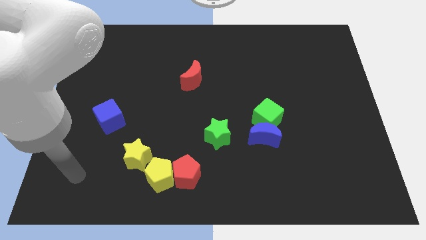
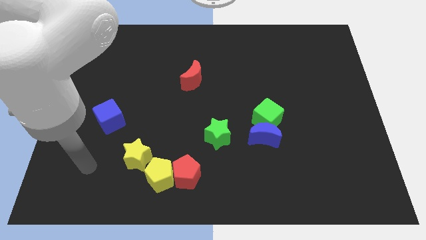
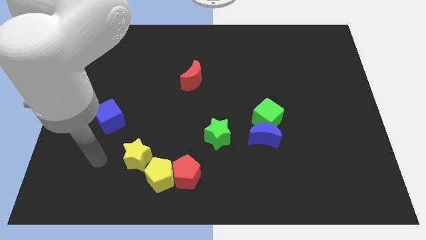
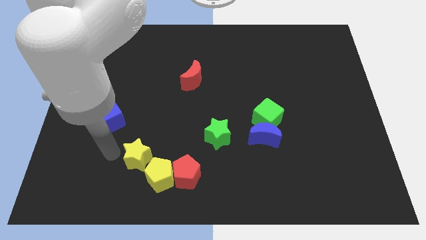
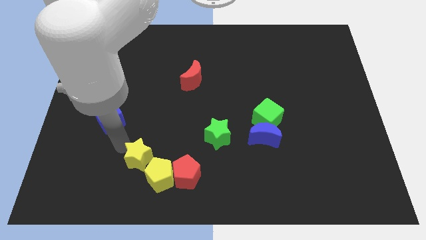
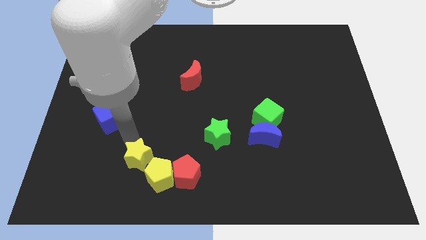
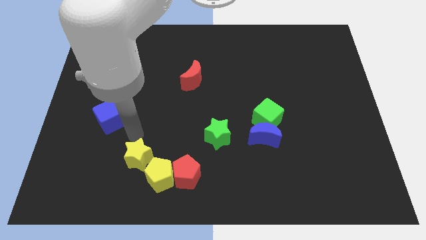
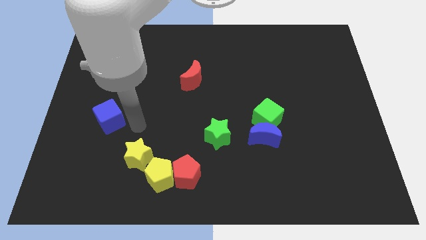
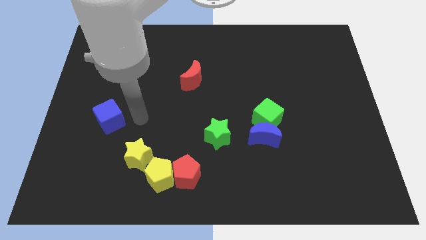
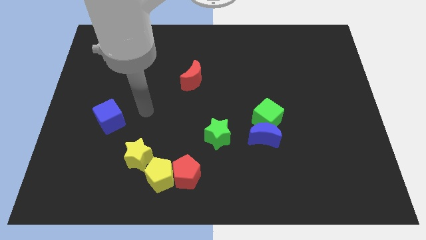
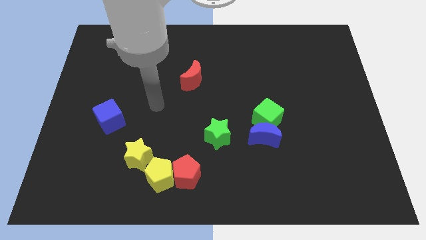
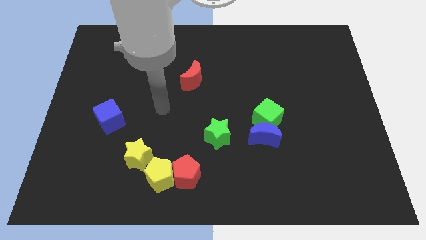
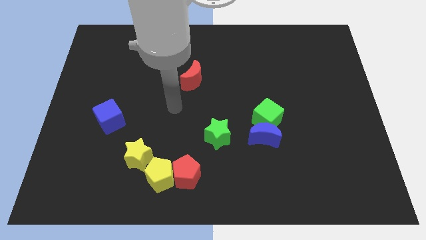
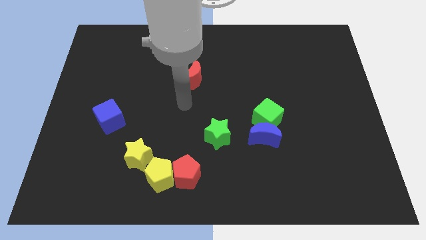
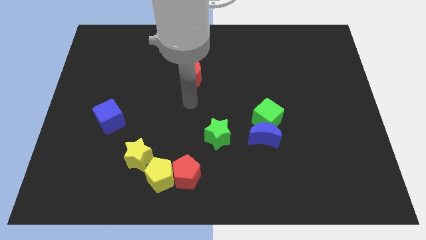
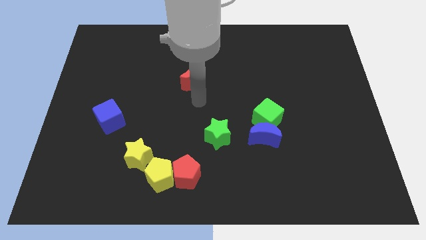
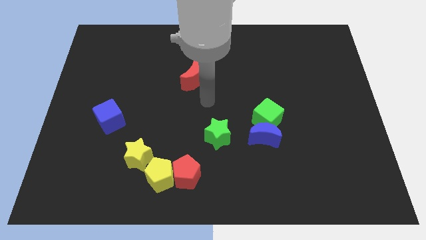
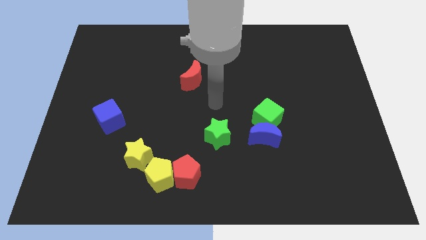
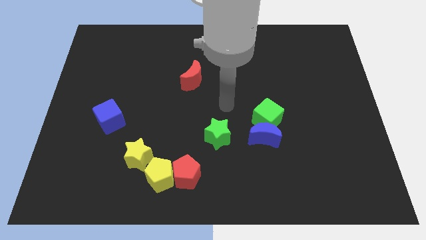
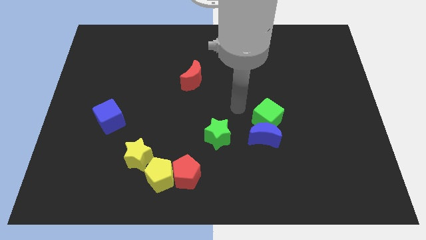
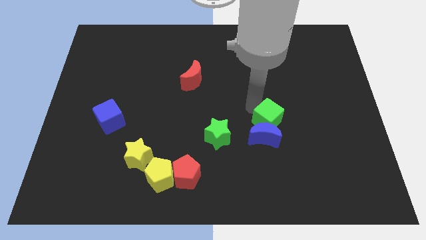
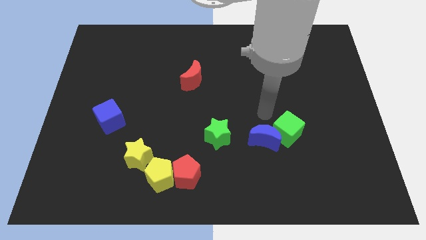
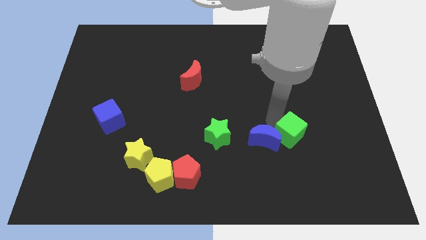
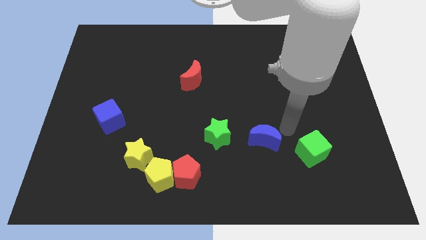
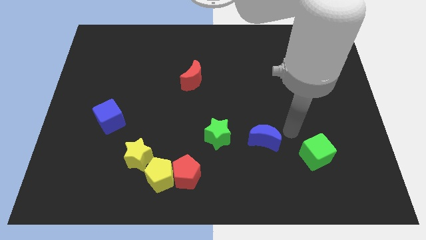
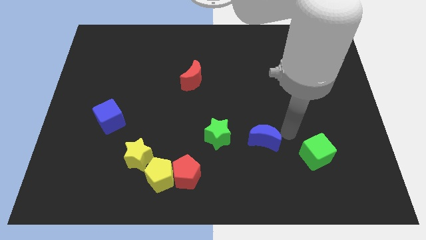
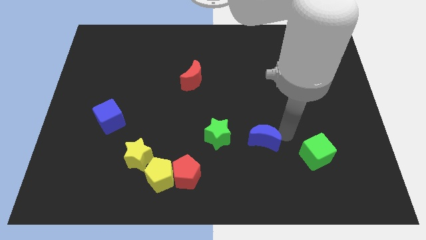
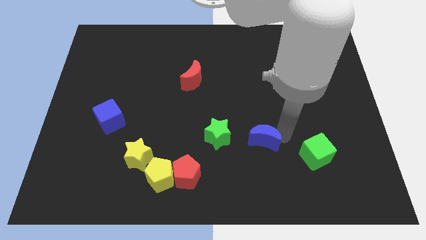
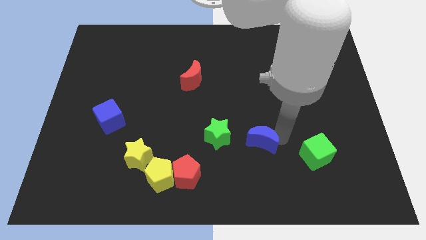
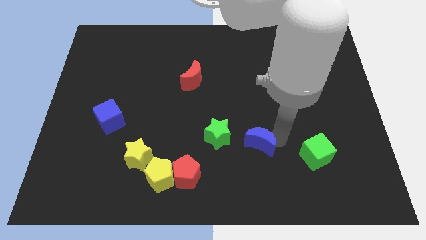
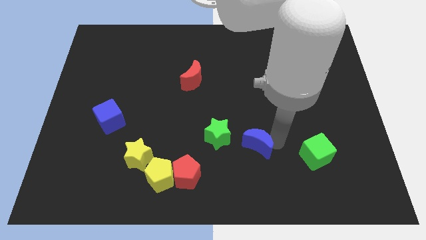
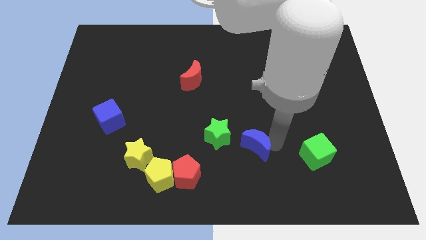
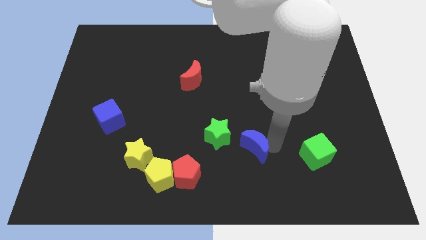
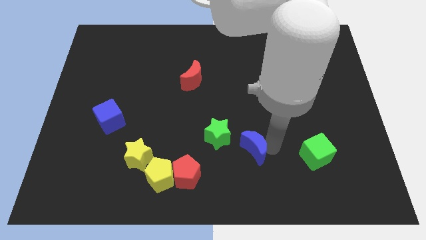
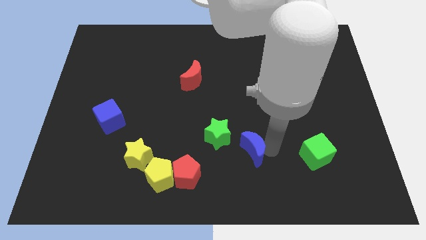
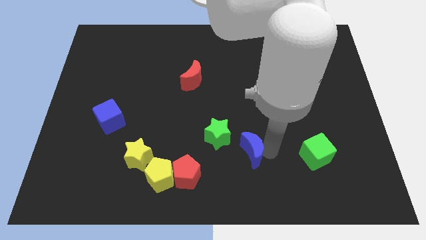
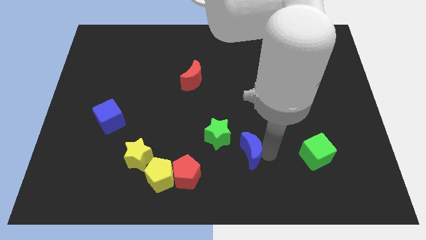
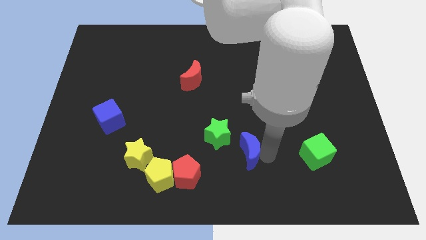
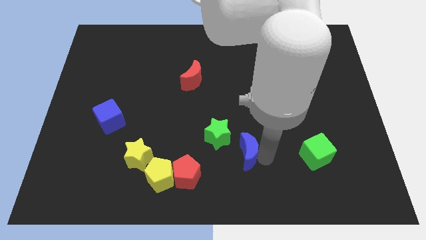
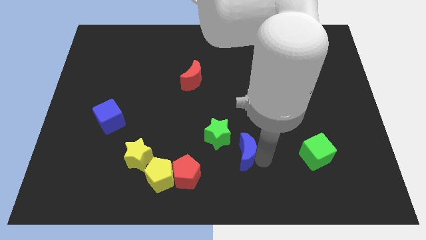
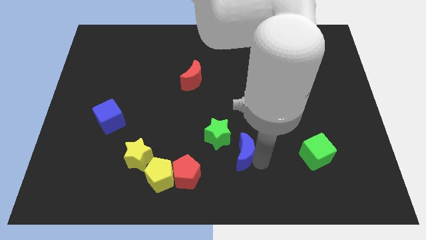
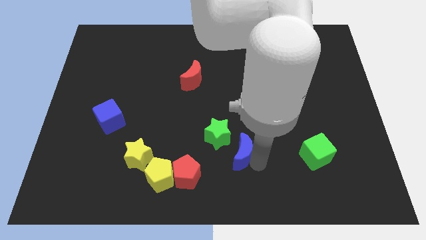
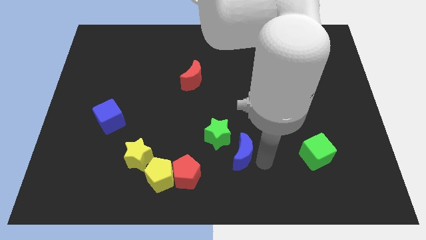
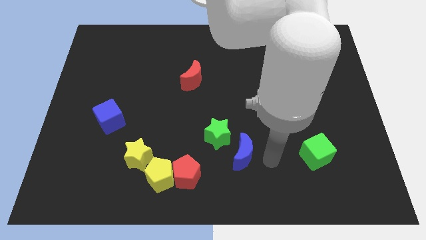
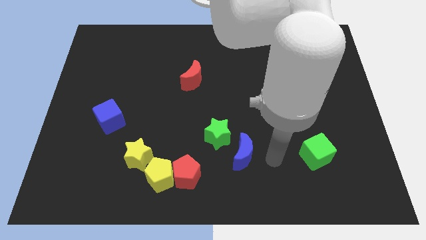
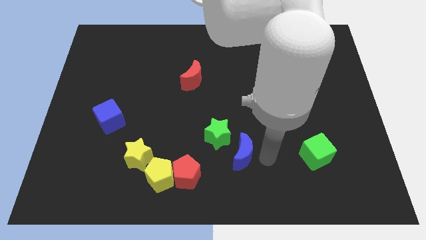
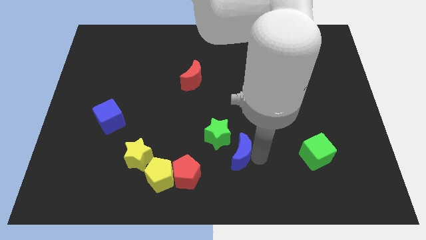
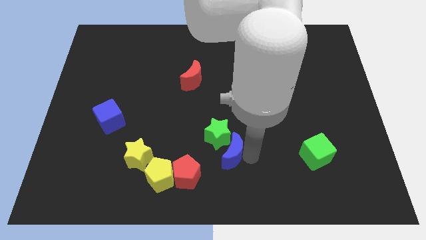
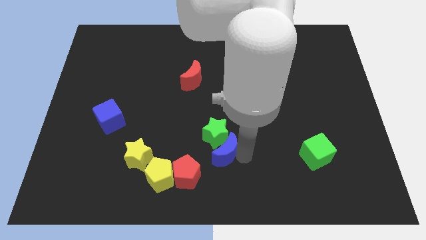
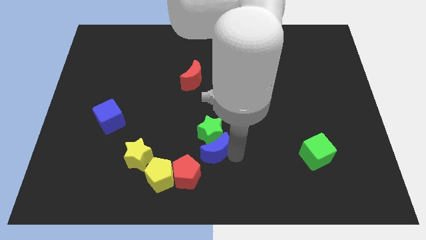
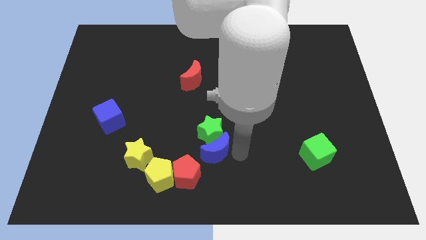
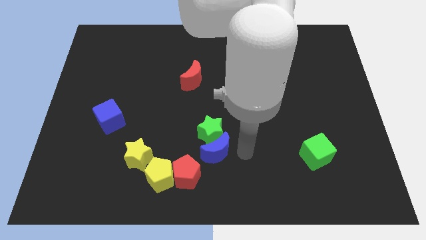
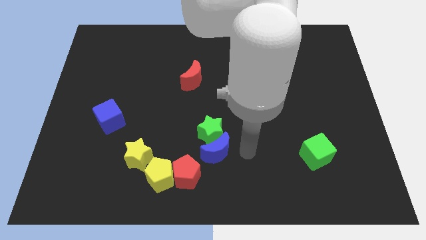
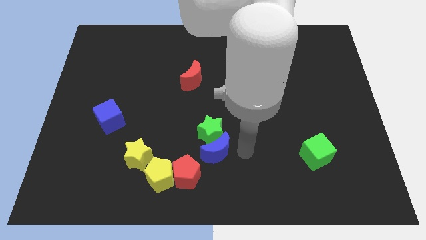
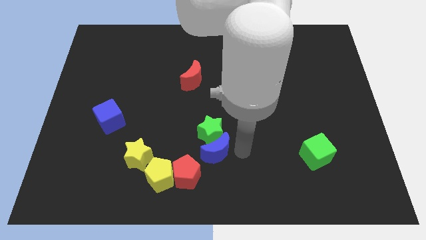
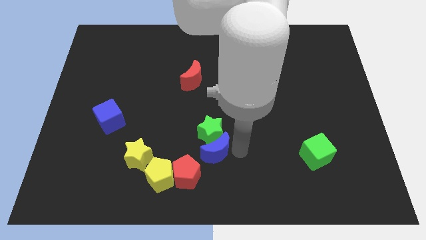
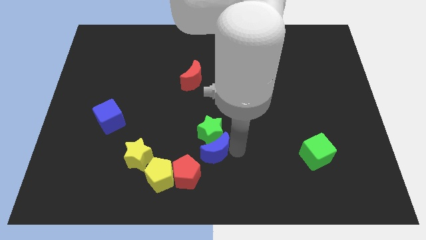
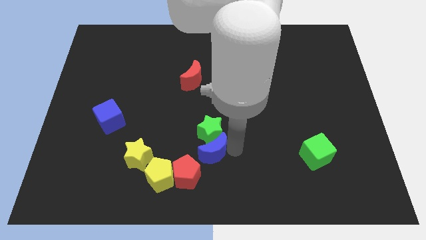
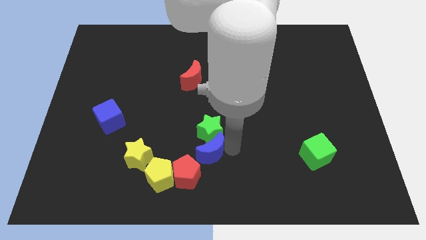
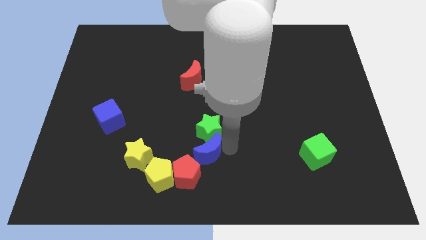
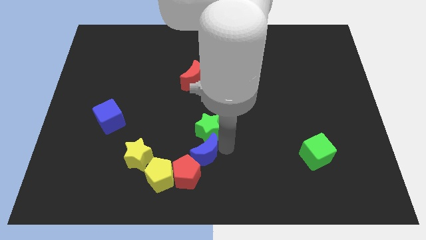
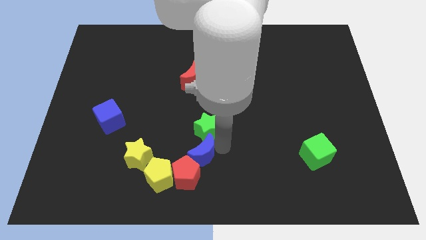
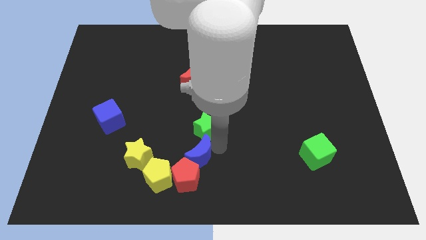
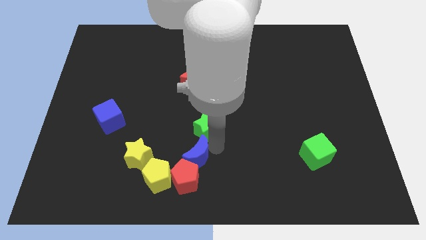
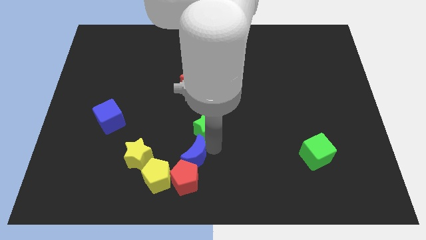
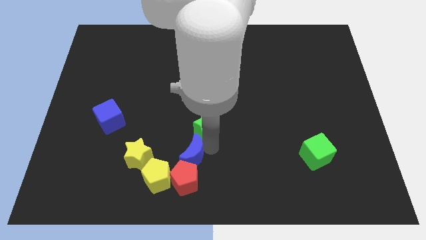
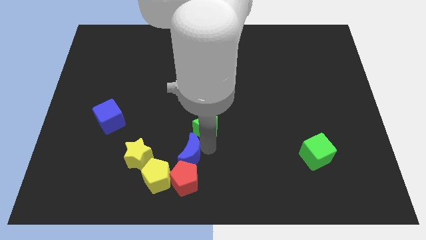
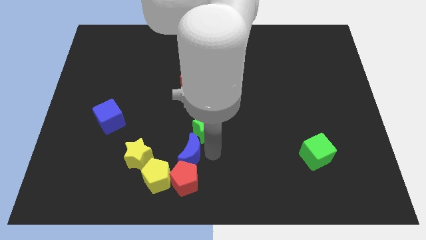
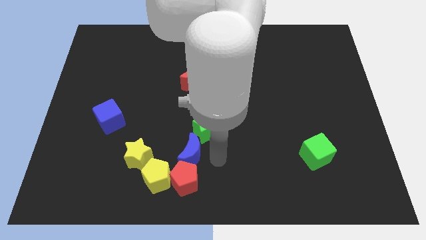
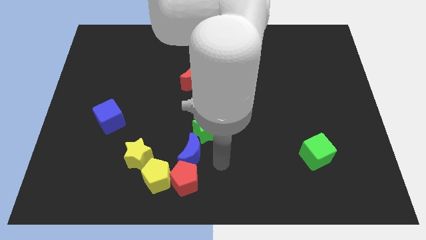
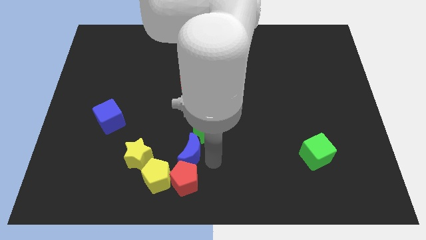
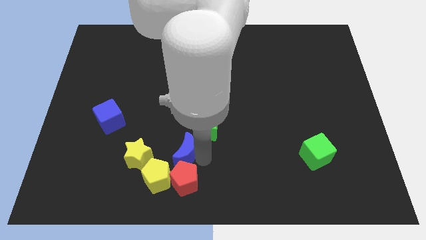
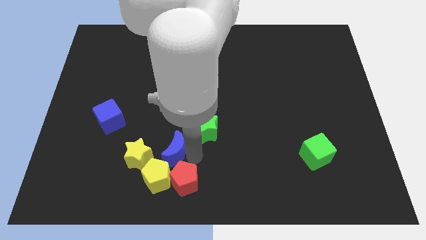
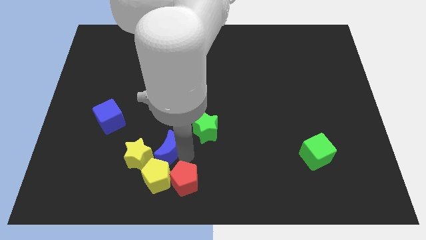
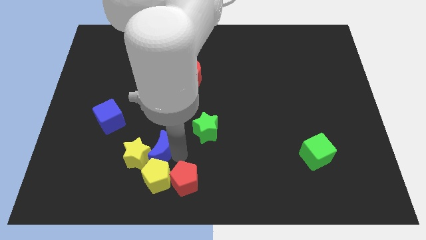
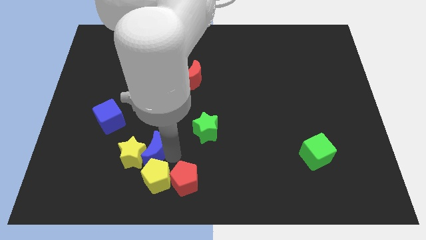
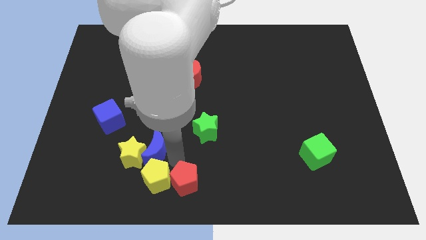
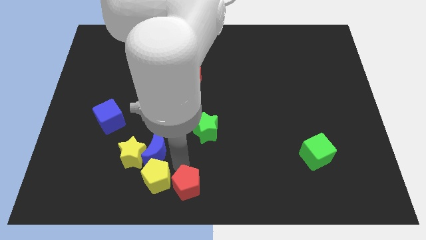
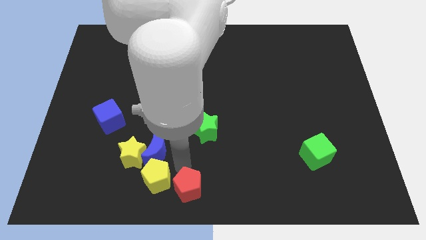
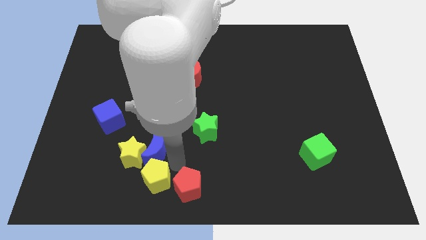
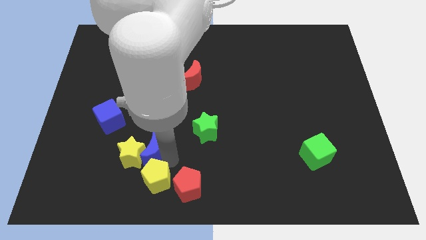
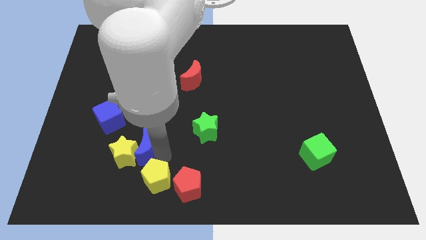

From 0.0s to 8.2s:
move the blue moon to the bottom right of the blue cube

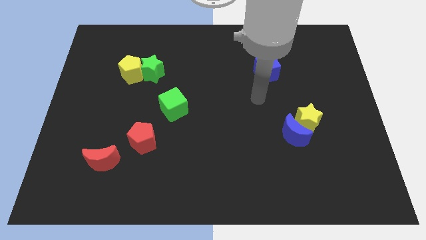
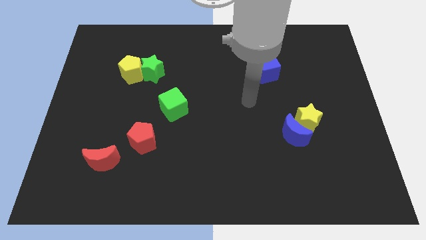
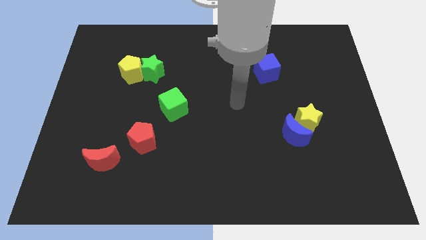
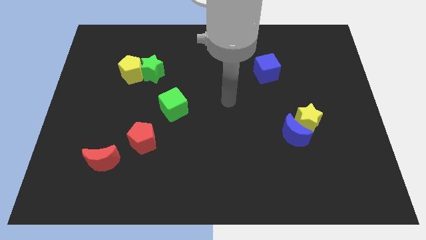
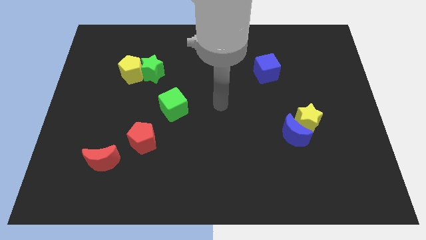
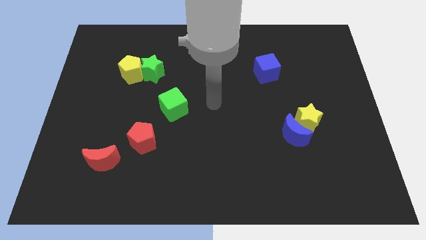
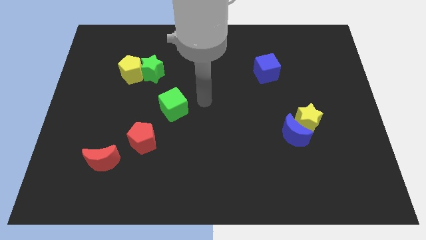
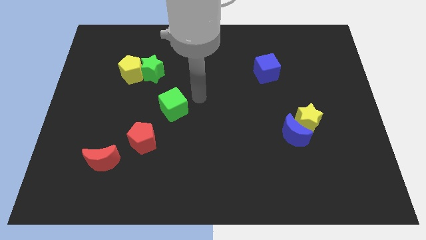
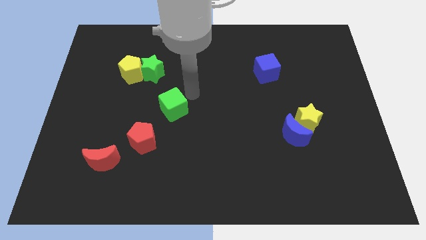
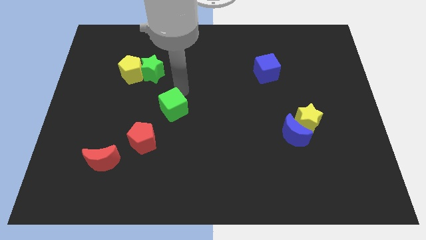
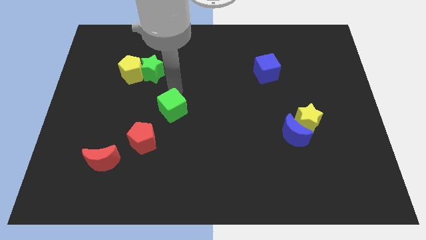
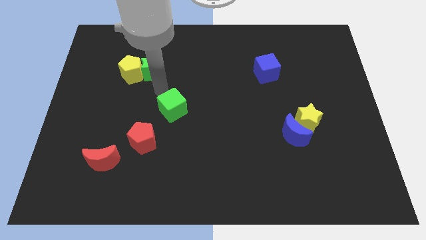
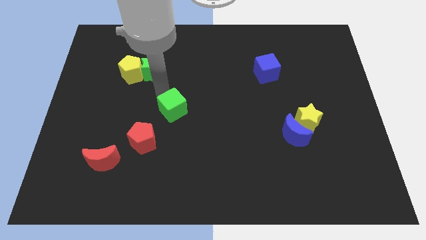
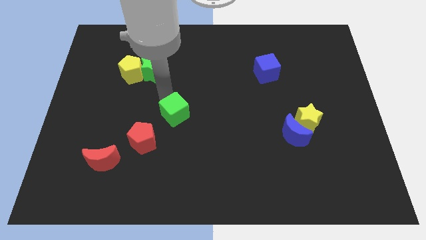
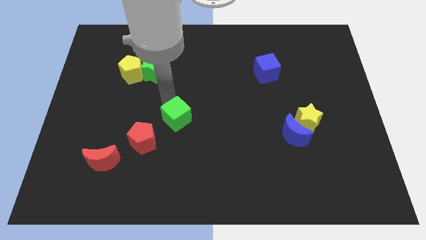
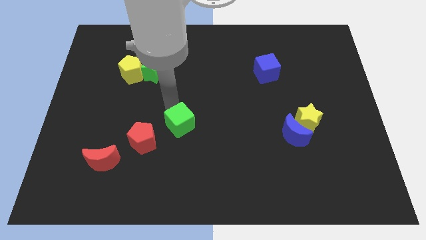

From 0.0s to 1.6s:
put the green cube to the right side of the red pentagon
